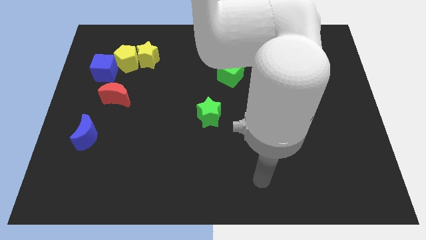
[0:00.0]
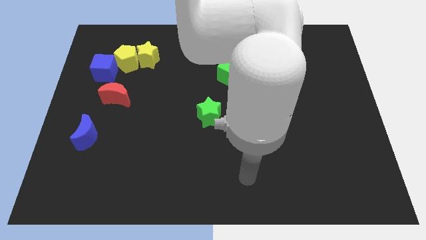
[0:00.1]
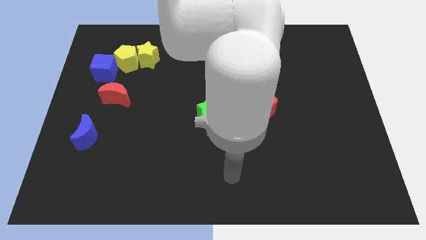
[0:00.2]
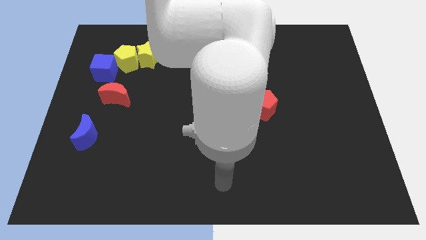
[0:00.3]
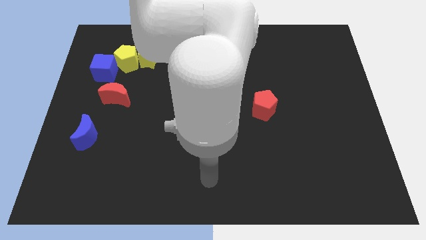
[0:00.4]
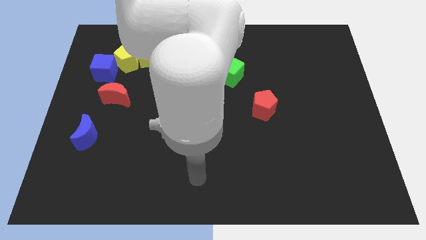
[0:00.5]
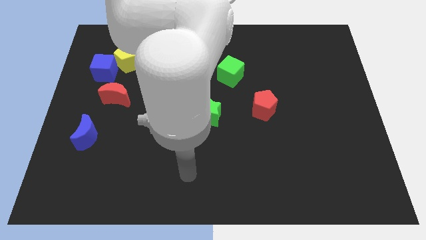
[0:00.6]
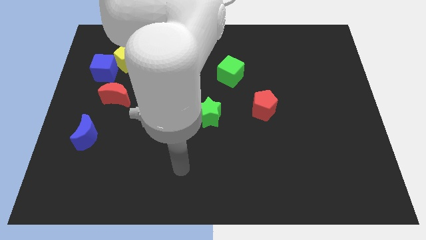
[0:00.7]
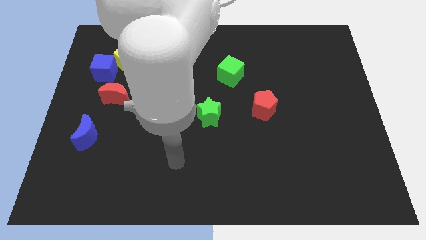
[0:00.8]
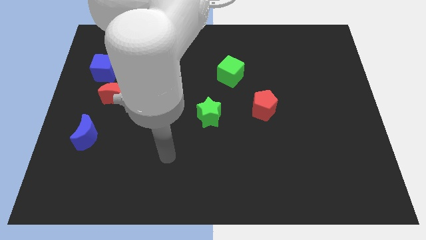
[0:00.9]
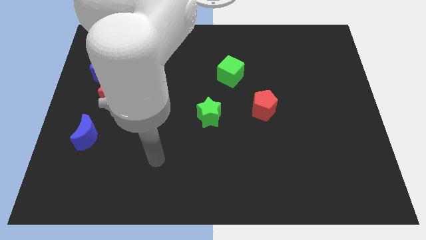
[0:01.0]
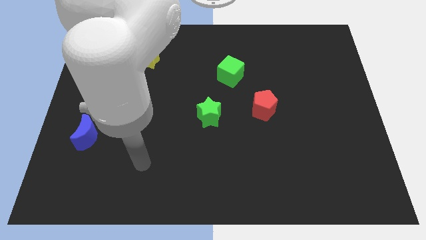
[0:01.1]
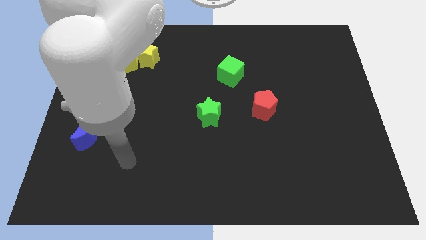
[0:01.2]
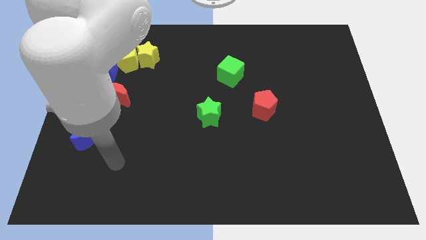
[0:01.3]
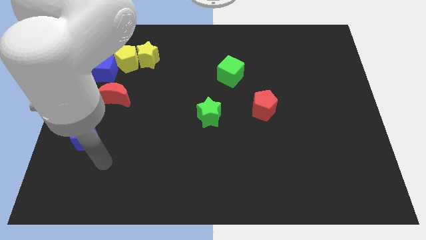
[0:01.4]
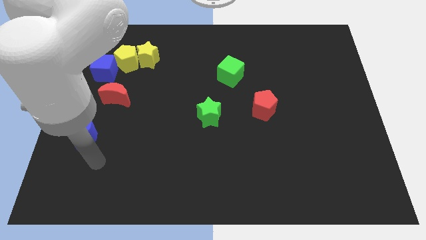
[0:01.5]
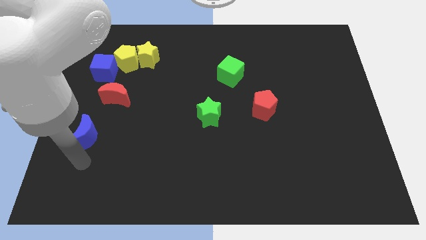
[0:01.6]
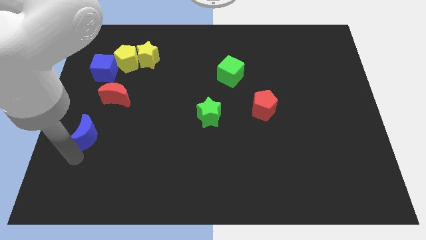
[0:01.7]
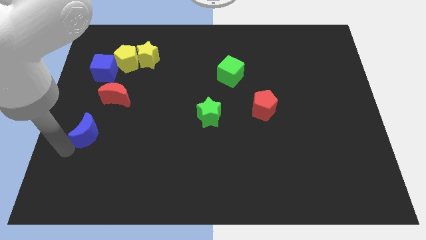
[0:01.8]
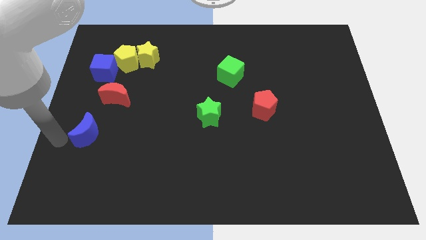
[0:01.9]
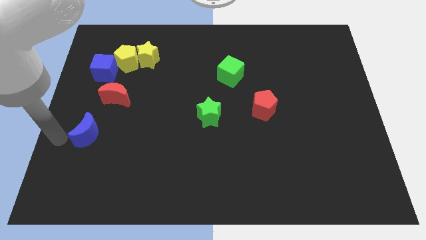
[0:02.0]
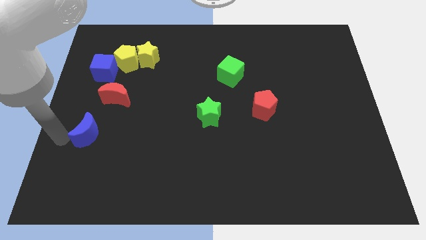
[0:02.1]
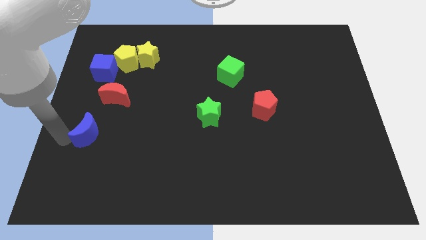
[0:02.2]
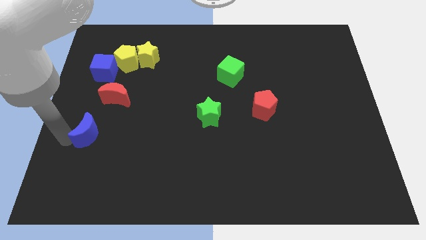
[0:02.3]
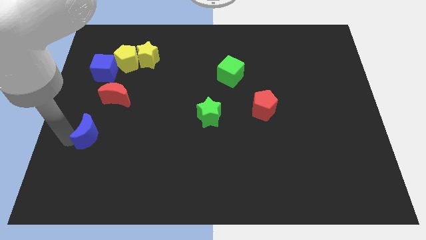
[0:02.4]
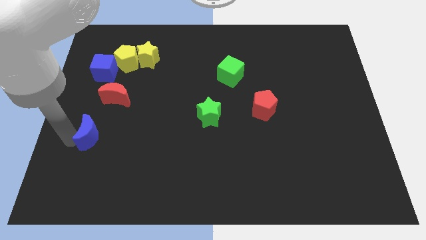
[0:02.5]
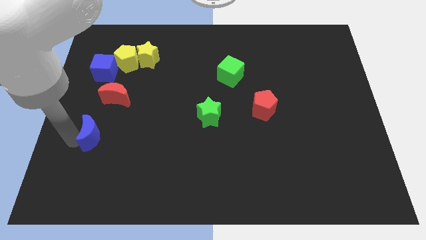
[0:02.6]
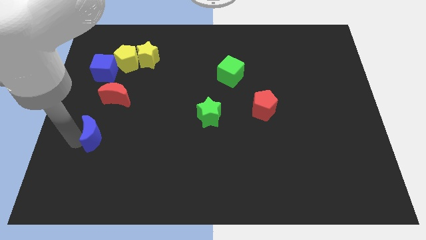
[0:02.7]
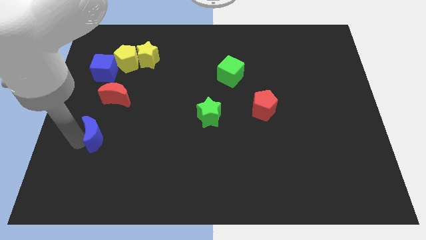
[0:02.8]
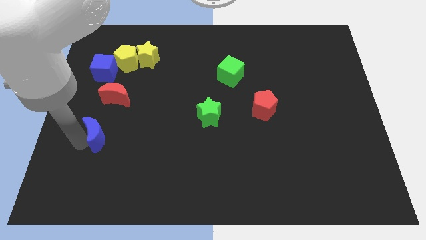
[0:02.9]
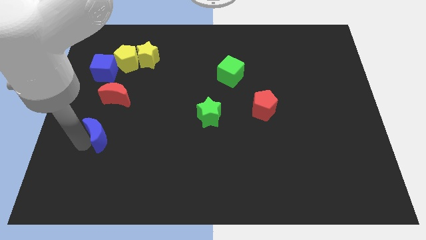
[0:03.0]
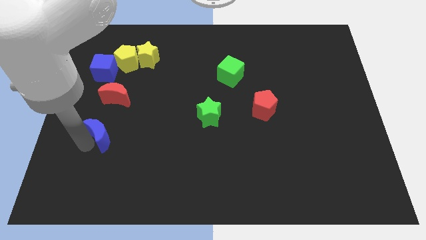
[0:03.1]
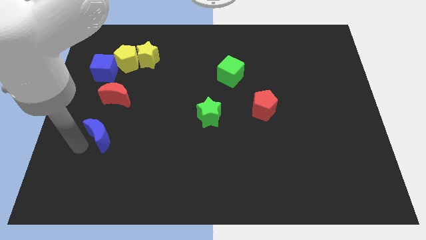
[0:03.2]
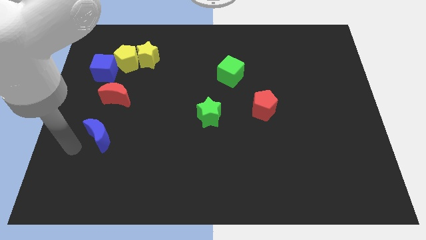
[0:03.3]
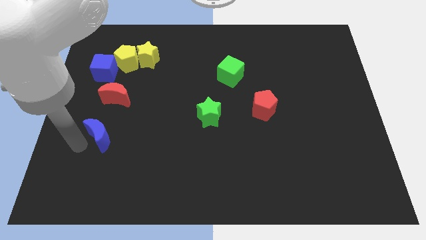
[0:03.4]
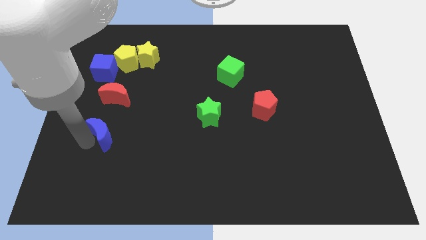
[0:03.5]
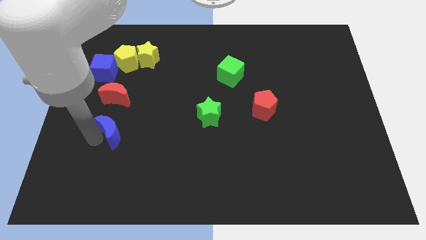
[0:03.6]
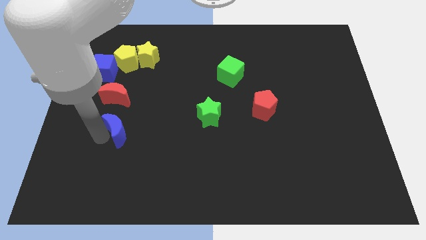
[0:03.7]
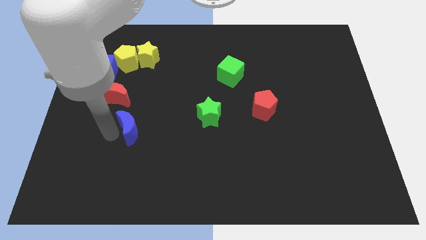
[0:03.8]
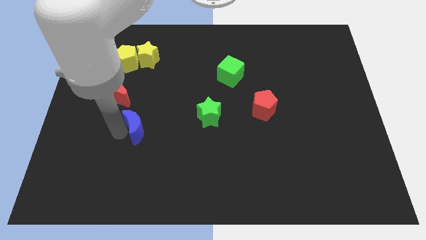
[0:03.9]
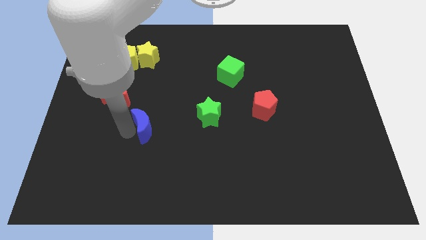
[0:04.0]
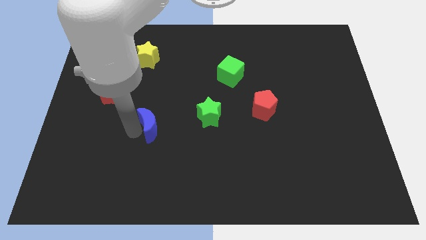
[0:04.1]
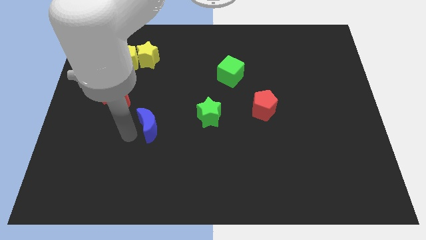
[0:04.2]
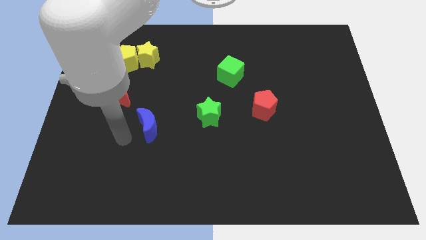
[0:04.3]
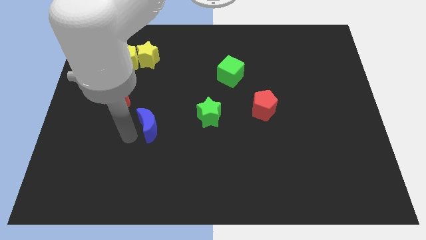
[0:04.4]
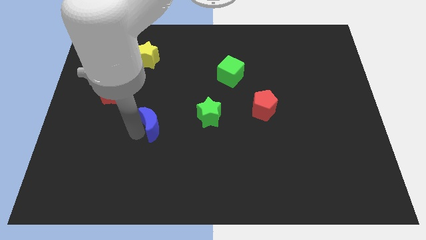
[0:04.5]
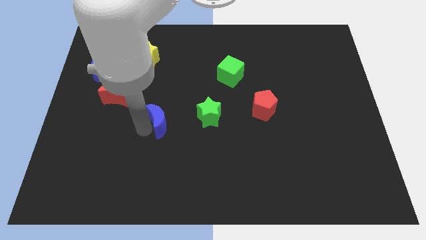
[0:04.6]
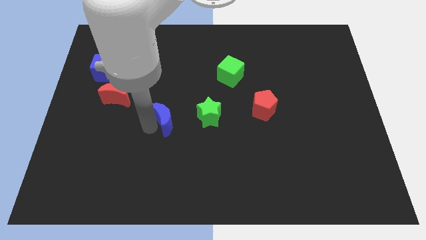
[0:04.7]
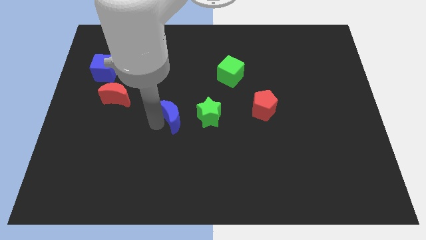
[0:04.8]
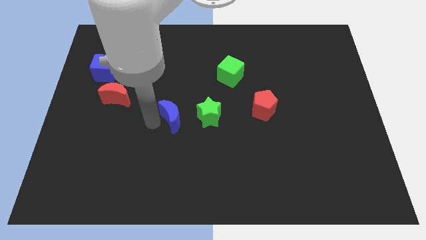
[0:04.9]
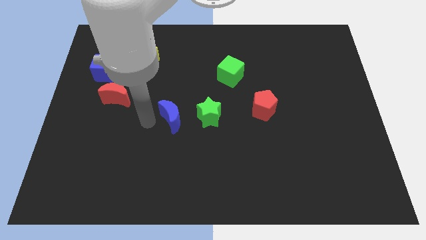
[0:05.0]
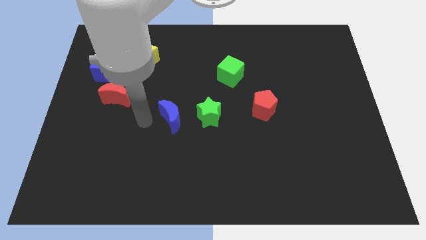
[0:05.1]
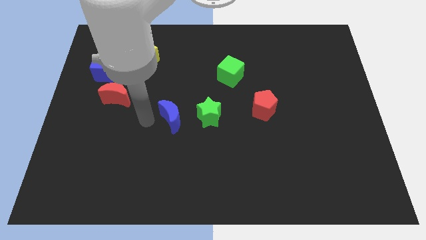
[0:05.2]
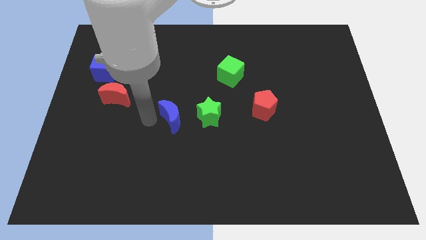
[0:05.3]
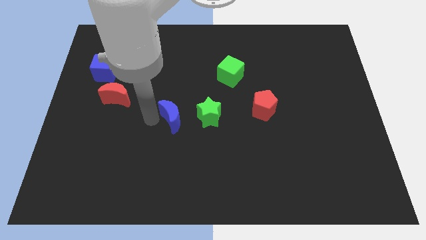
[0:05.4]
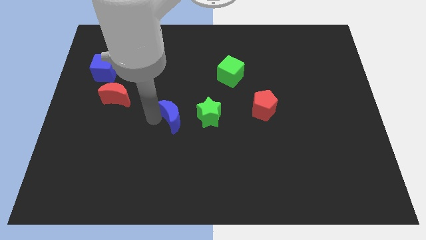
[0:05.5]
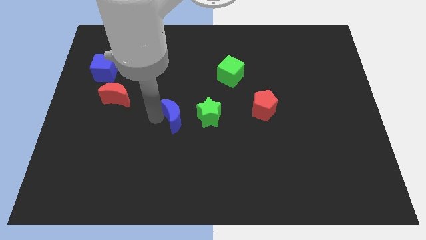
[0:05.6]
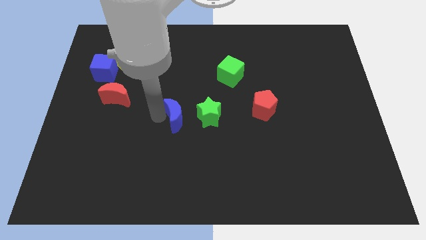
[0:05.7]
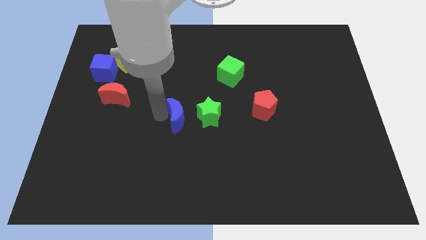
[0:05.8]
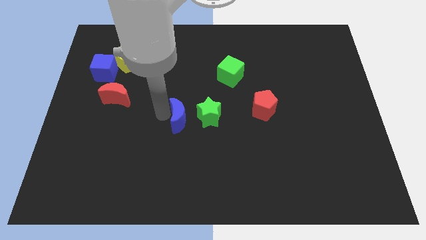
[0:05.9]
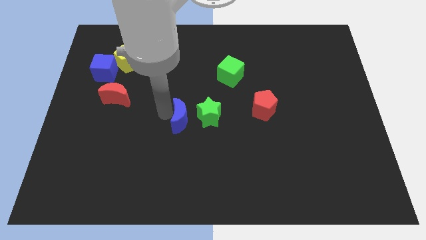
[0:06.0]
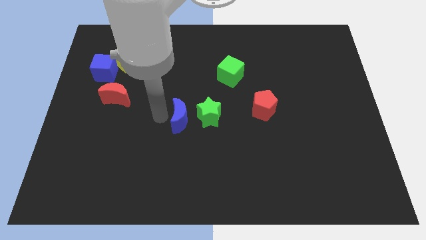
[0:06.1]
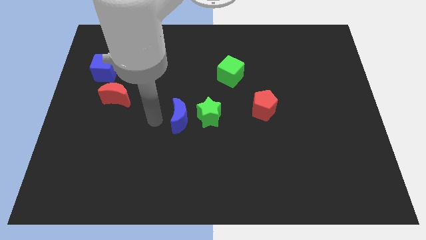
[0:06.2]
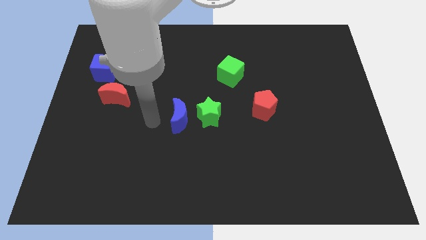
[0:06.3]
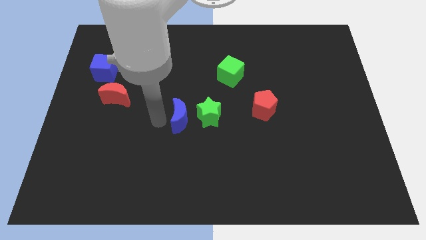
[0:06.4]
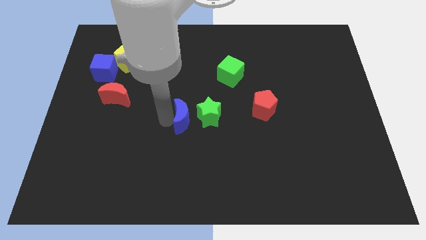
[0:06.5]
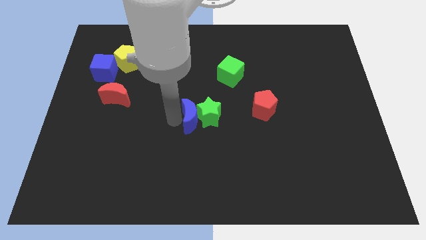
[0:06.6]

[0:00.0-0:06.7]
push the blue moon next to the green star
